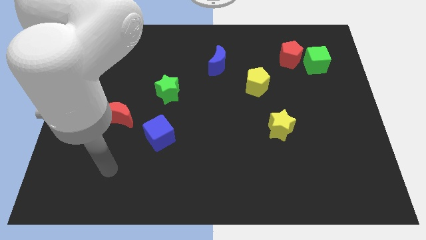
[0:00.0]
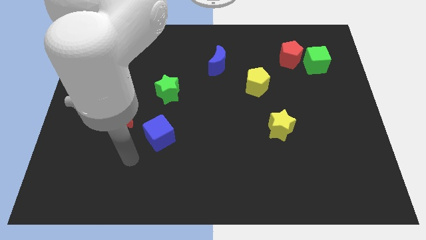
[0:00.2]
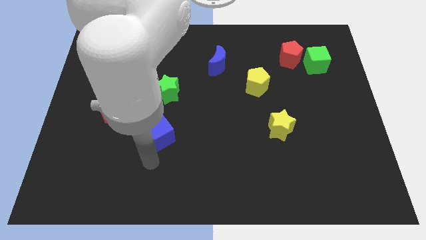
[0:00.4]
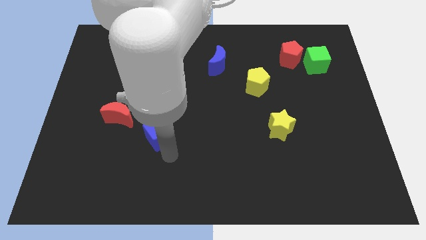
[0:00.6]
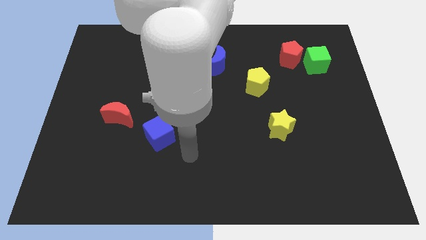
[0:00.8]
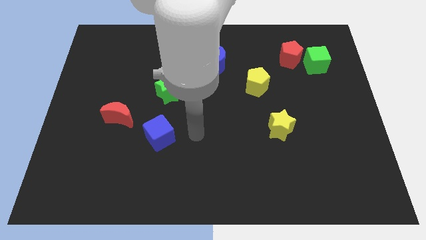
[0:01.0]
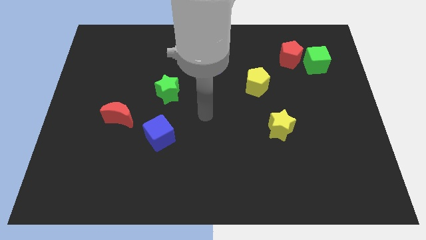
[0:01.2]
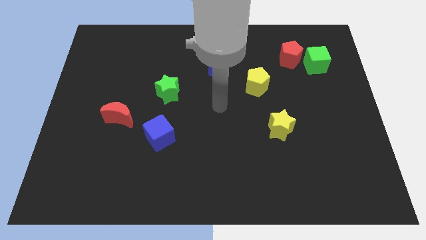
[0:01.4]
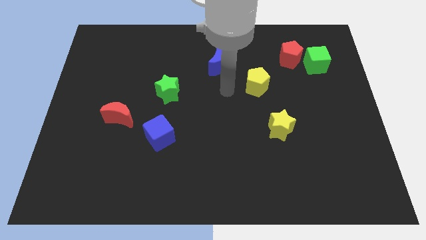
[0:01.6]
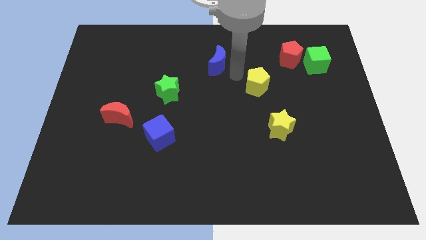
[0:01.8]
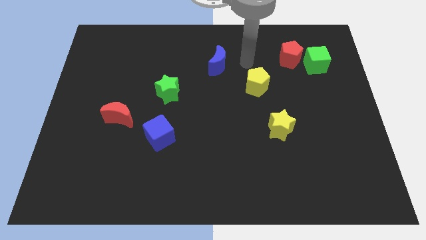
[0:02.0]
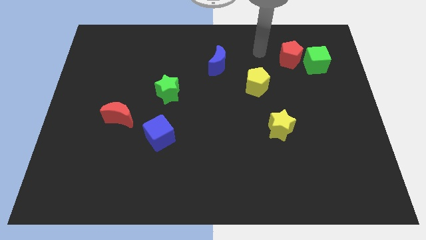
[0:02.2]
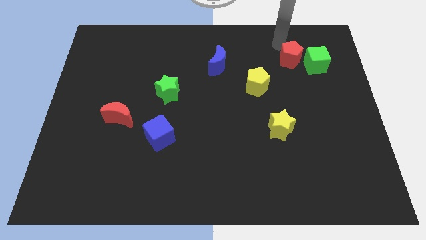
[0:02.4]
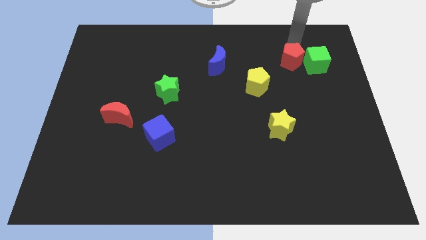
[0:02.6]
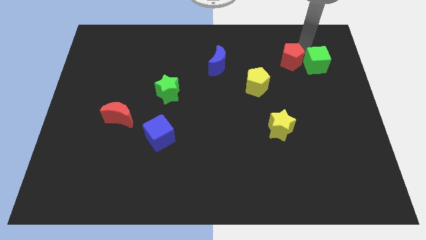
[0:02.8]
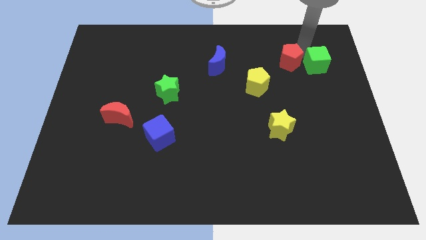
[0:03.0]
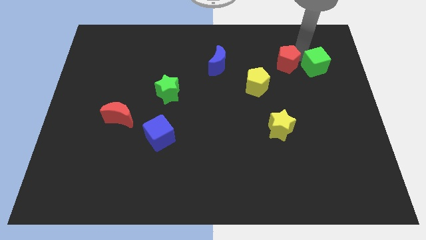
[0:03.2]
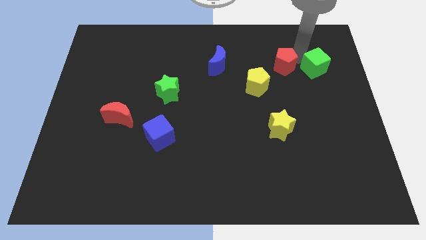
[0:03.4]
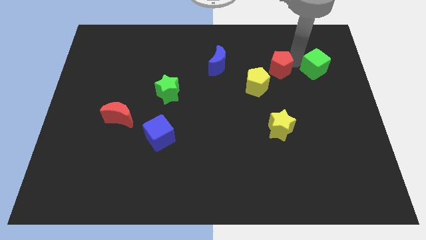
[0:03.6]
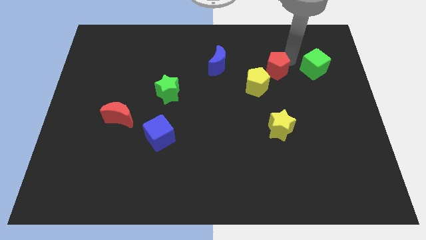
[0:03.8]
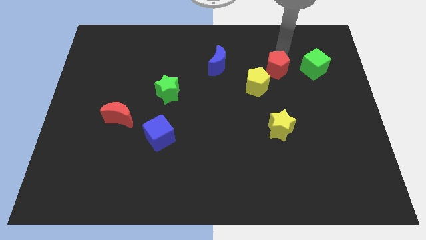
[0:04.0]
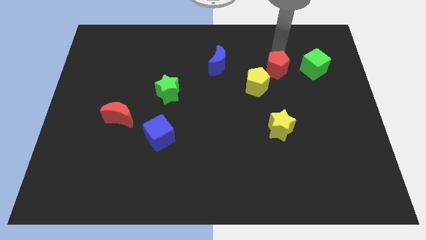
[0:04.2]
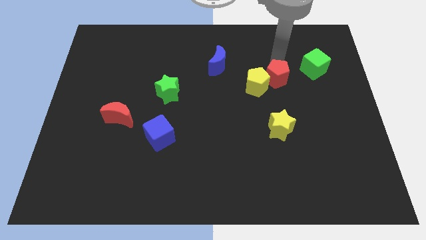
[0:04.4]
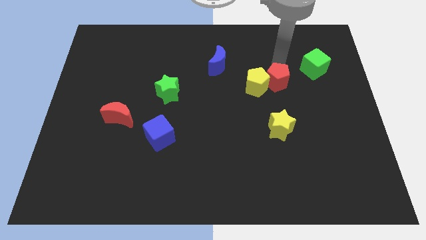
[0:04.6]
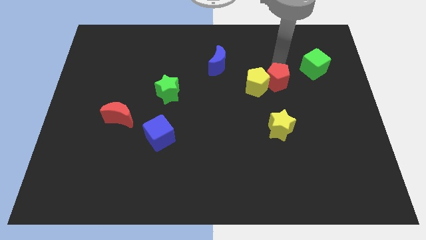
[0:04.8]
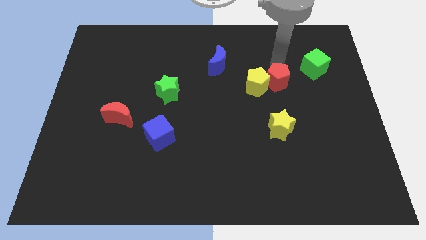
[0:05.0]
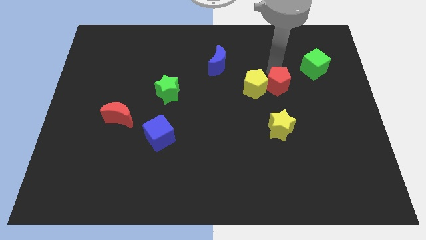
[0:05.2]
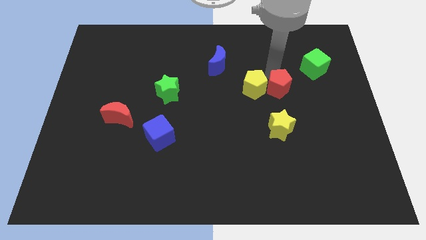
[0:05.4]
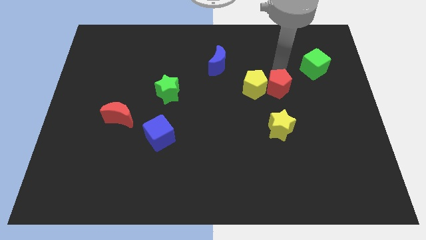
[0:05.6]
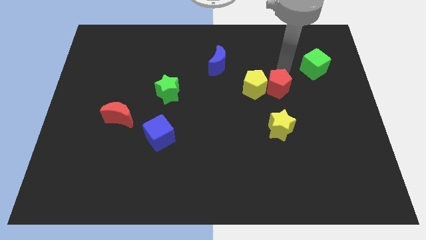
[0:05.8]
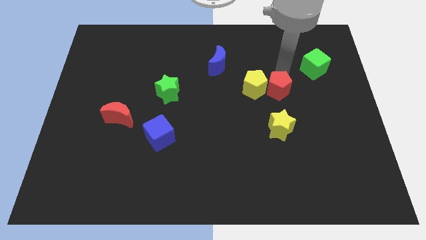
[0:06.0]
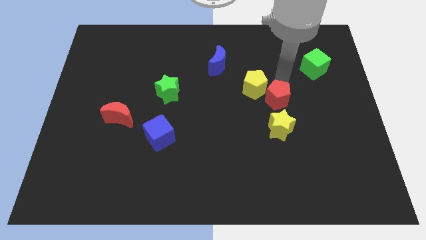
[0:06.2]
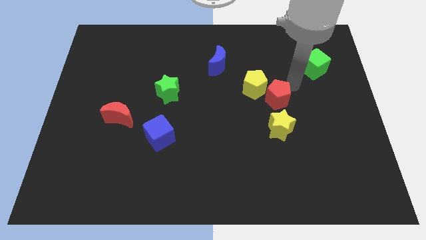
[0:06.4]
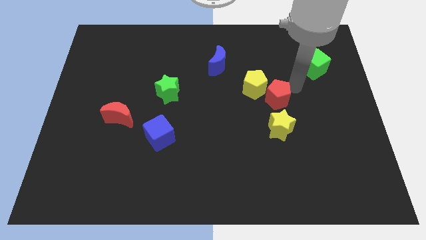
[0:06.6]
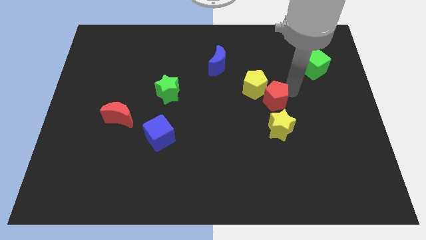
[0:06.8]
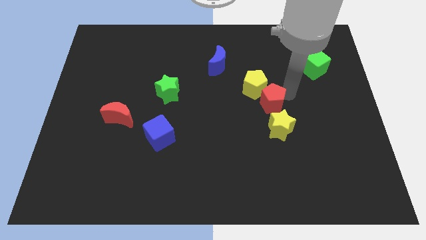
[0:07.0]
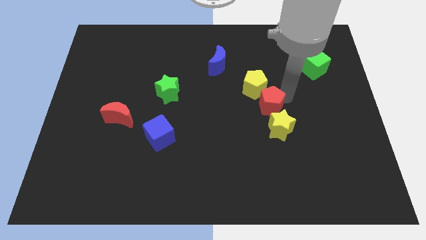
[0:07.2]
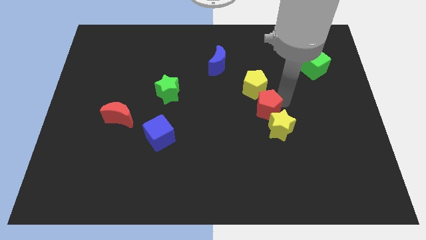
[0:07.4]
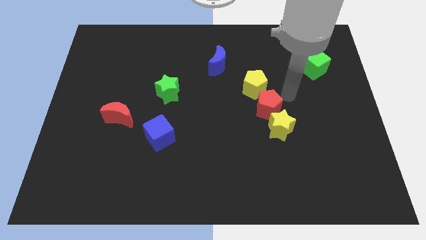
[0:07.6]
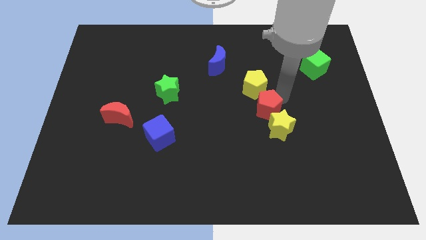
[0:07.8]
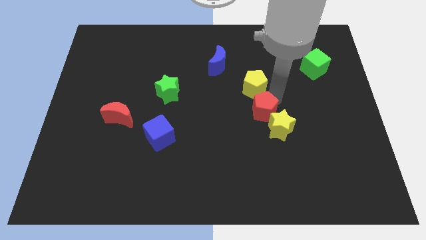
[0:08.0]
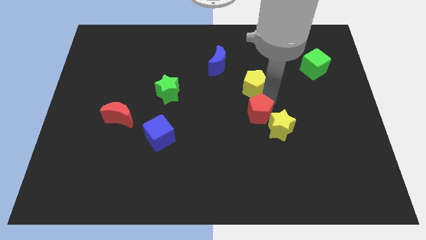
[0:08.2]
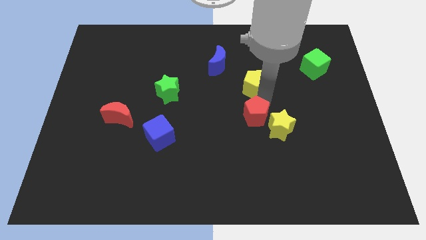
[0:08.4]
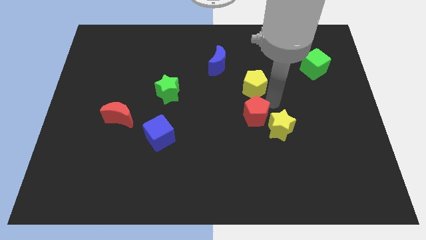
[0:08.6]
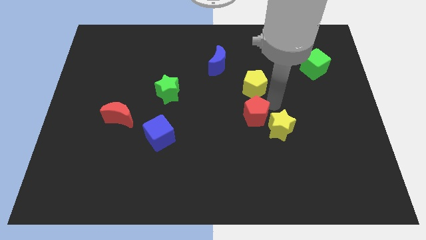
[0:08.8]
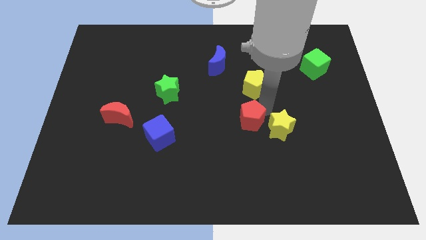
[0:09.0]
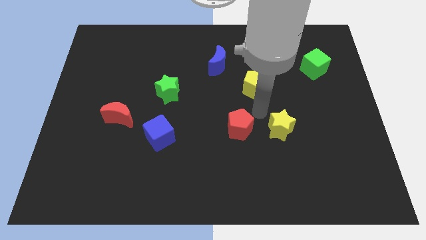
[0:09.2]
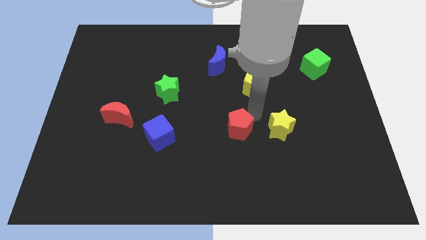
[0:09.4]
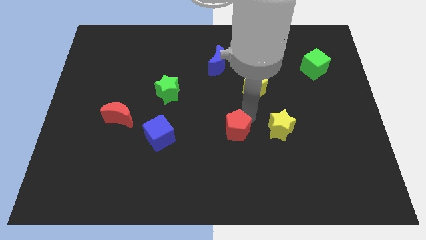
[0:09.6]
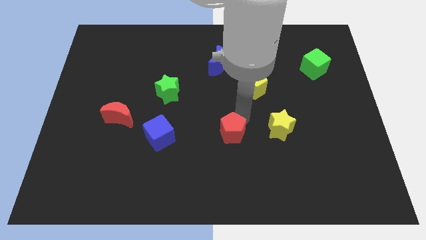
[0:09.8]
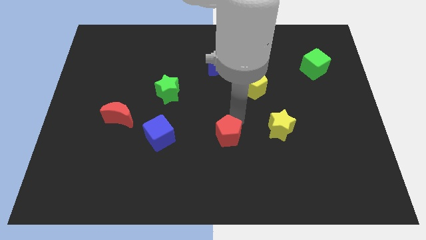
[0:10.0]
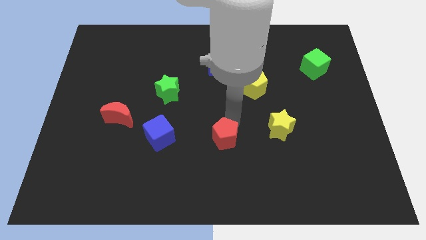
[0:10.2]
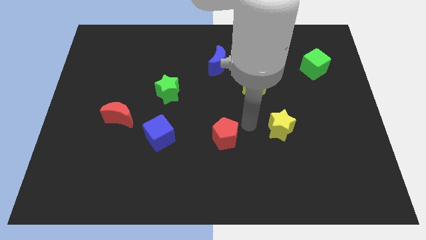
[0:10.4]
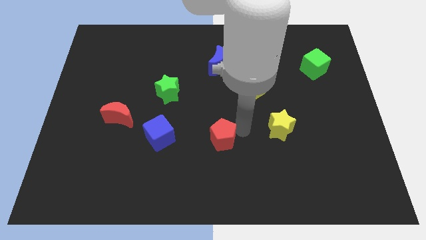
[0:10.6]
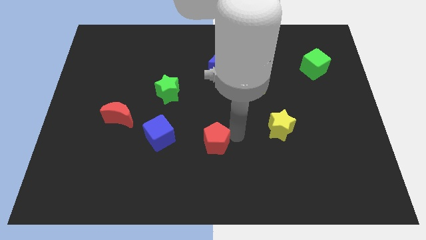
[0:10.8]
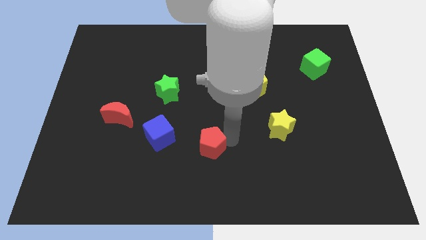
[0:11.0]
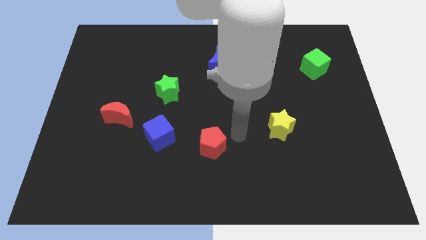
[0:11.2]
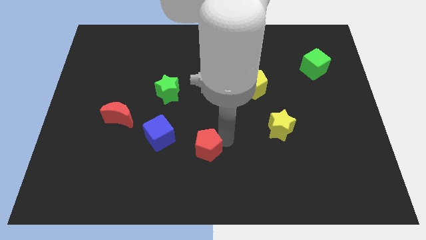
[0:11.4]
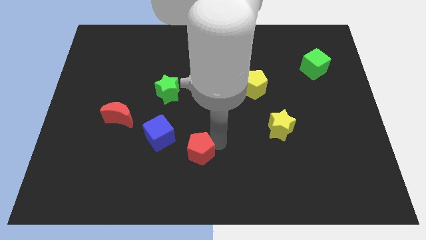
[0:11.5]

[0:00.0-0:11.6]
slide the red pentagon diagonally down and to the right of the blue cube

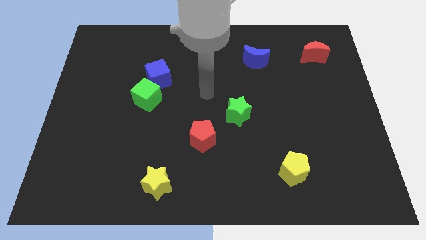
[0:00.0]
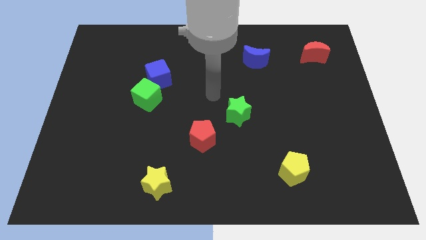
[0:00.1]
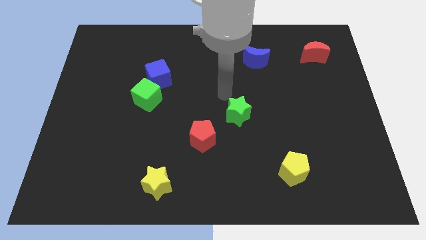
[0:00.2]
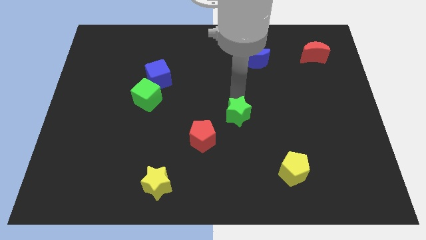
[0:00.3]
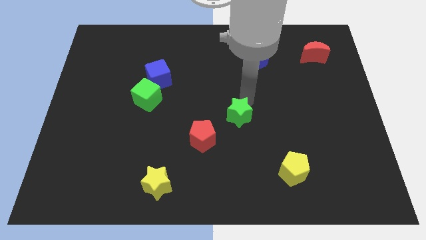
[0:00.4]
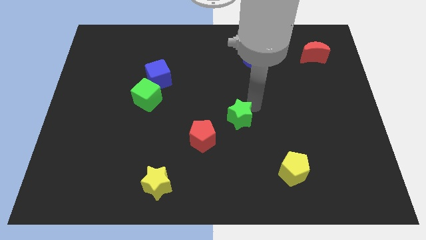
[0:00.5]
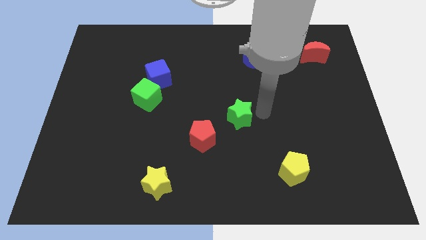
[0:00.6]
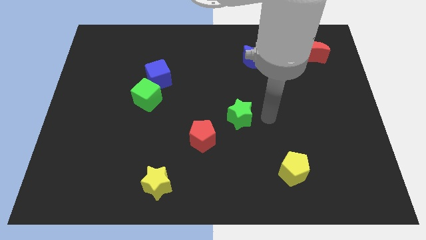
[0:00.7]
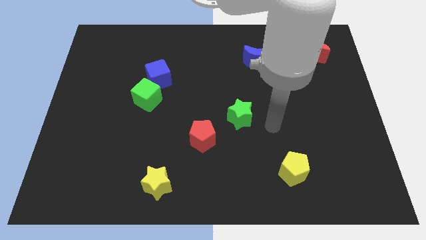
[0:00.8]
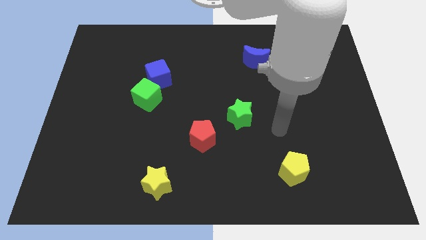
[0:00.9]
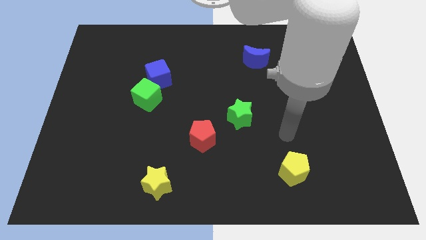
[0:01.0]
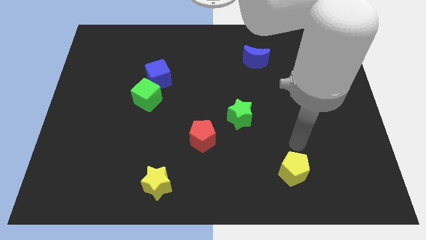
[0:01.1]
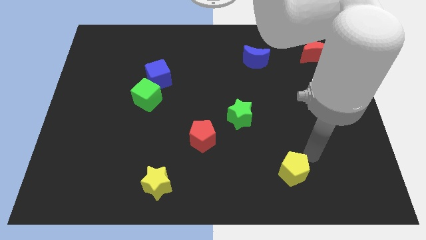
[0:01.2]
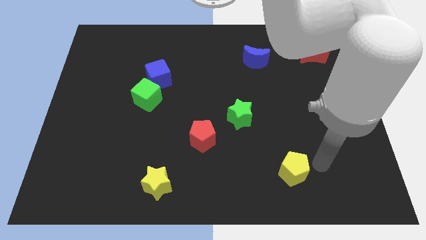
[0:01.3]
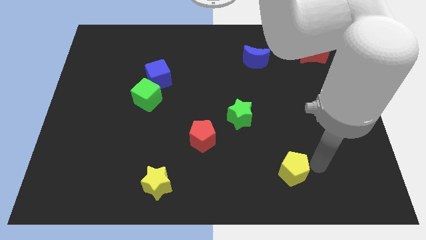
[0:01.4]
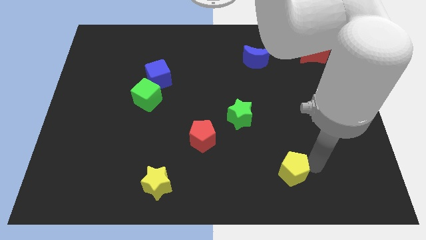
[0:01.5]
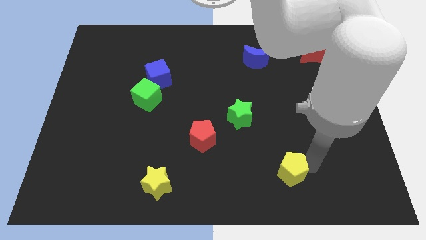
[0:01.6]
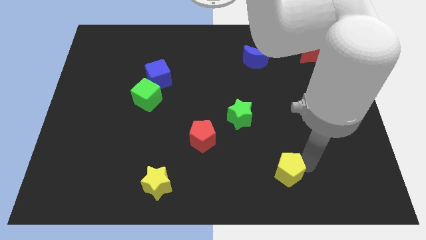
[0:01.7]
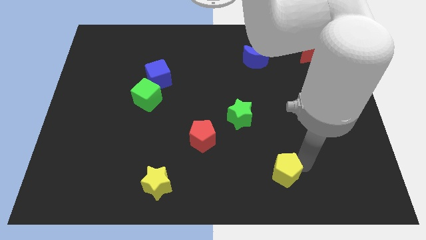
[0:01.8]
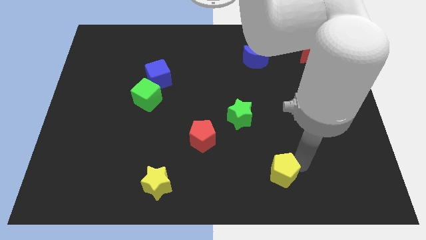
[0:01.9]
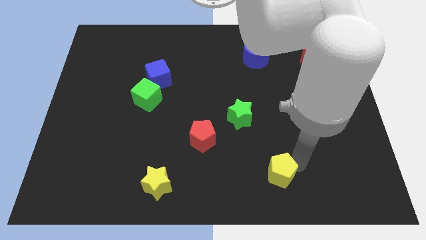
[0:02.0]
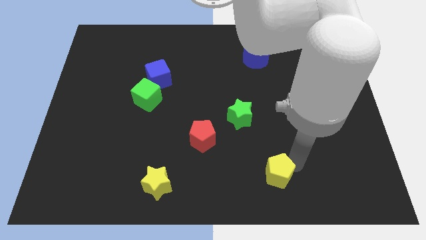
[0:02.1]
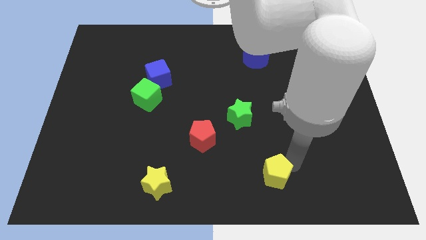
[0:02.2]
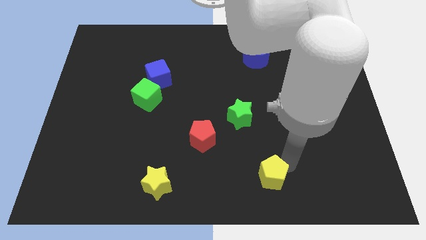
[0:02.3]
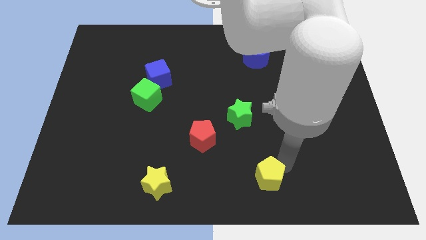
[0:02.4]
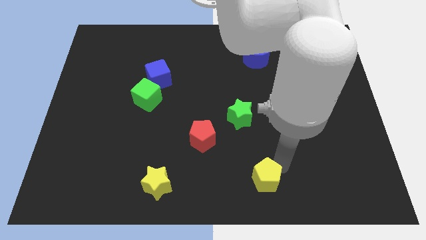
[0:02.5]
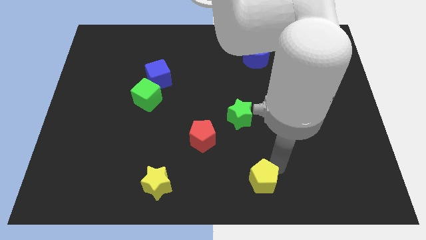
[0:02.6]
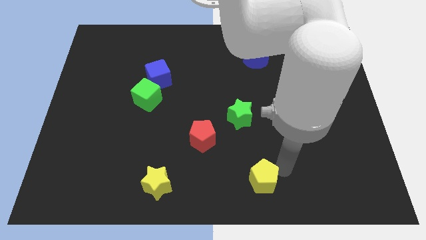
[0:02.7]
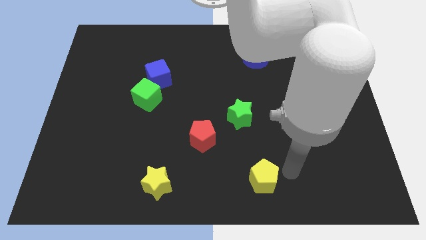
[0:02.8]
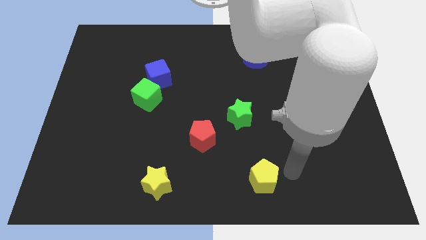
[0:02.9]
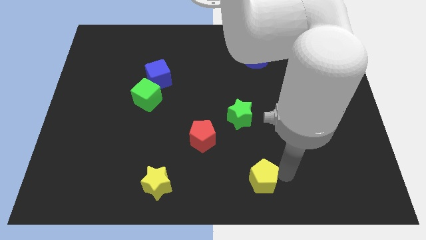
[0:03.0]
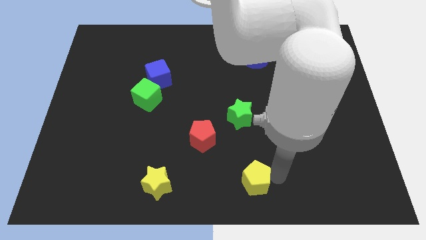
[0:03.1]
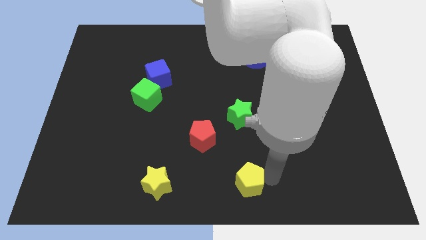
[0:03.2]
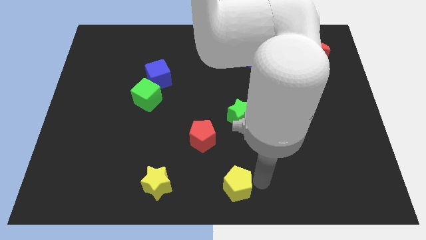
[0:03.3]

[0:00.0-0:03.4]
push the yellow pentagon to the right side of the yellow star
